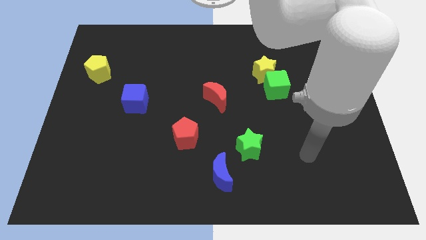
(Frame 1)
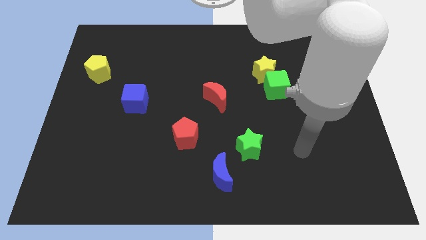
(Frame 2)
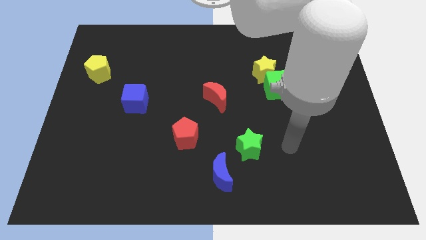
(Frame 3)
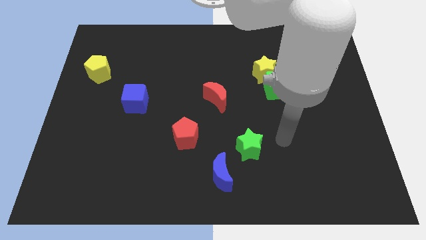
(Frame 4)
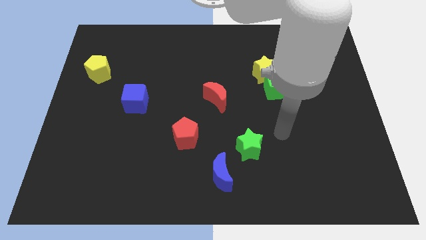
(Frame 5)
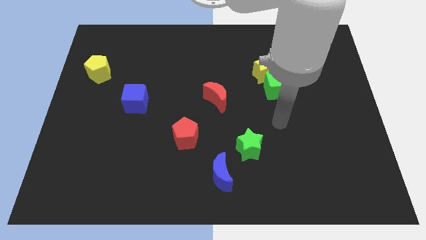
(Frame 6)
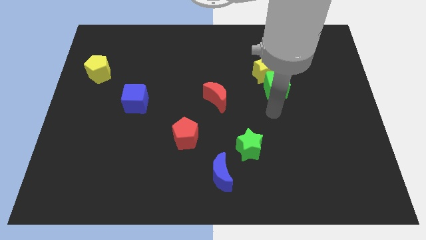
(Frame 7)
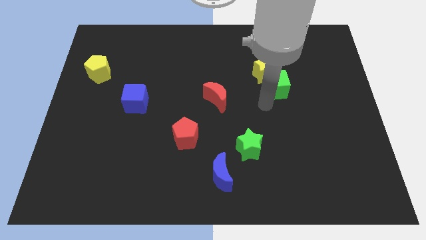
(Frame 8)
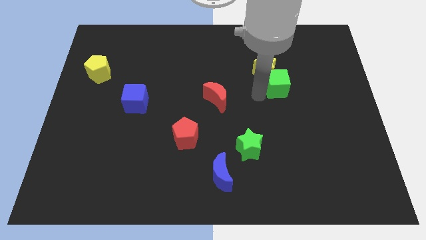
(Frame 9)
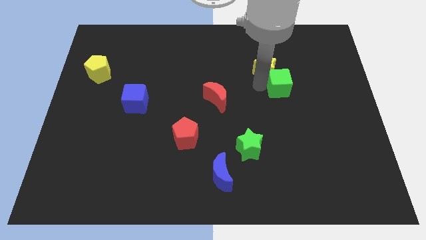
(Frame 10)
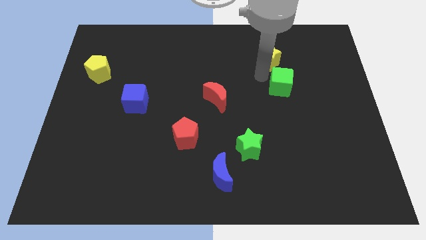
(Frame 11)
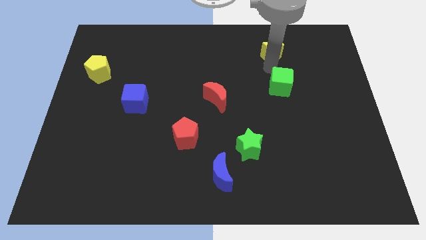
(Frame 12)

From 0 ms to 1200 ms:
separate the green cube from the yellow star

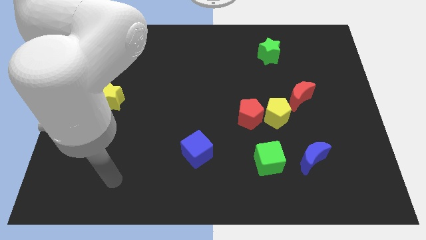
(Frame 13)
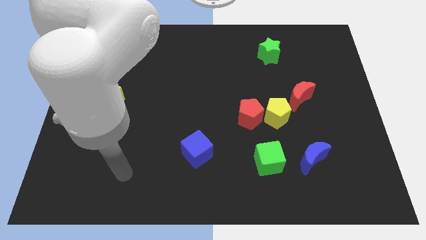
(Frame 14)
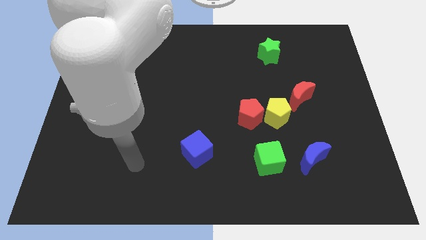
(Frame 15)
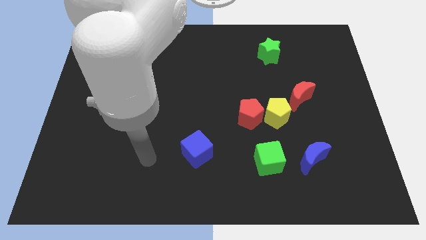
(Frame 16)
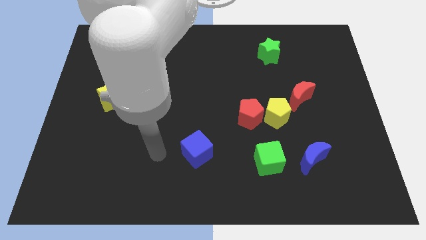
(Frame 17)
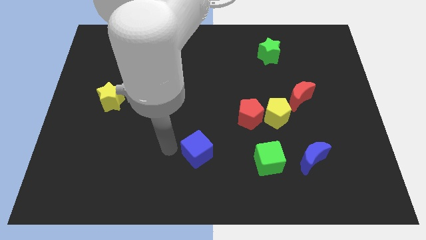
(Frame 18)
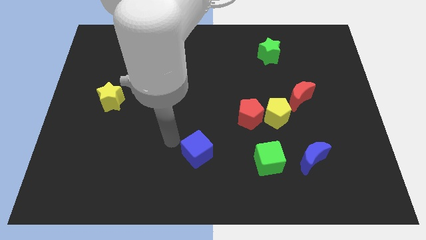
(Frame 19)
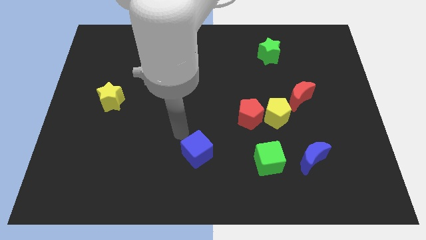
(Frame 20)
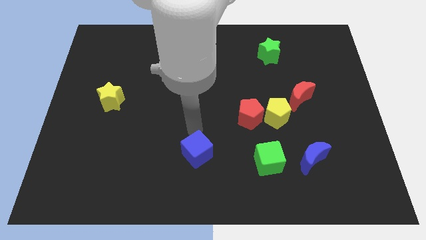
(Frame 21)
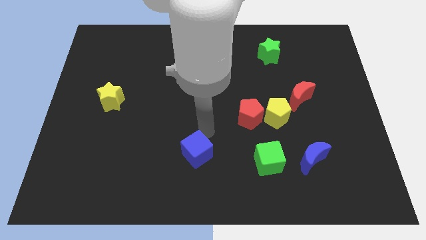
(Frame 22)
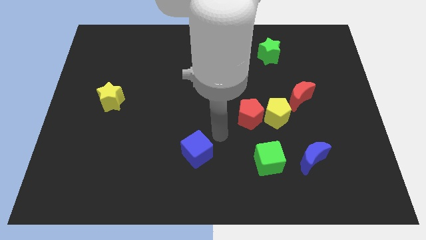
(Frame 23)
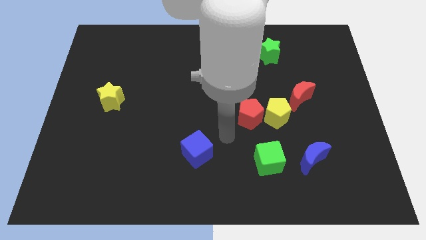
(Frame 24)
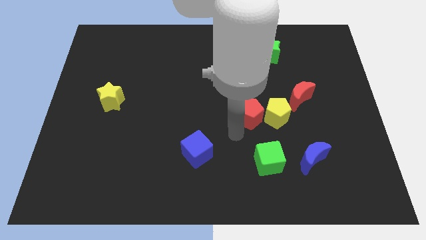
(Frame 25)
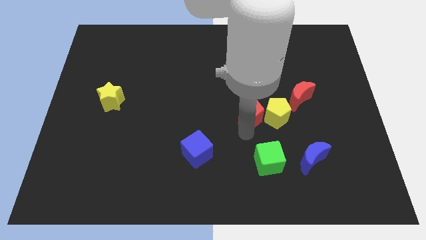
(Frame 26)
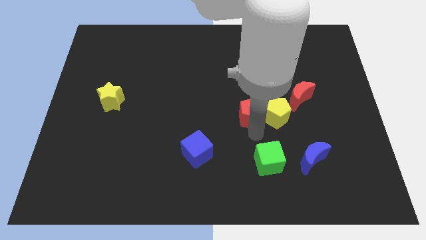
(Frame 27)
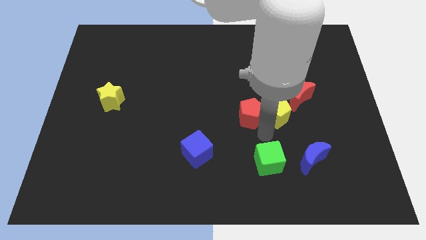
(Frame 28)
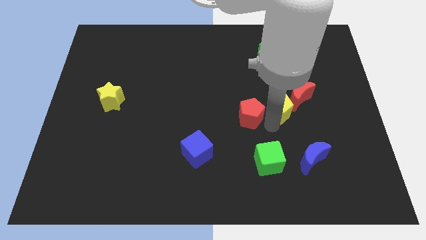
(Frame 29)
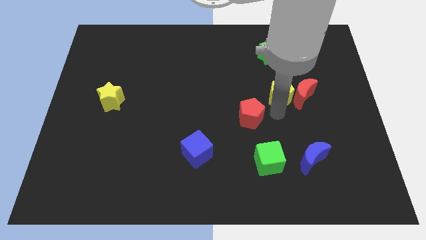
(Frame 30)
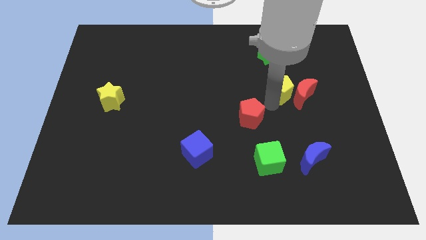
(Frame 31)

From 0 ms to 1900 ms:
pull the red pentagon apart from the yellow pentagon

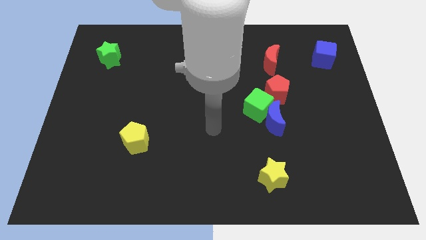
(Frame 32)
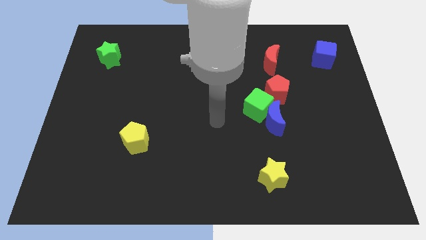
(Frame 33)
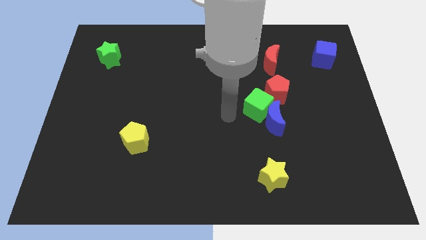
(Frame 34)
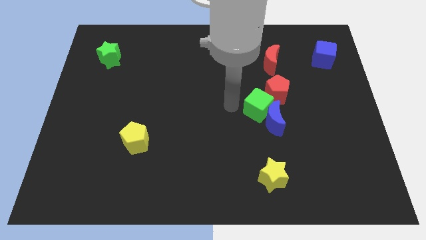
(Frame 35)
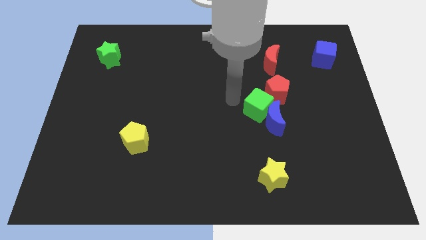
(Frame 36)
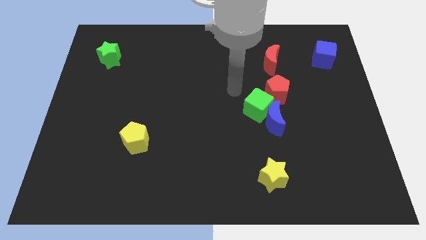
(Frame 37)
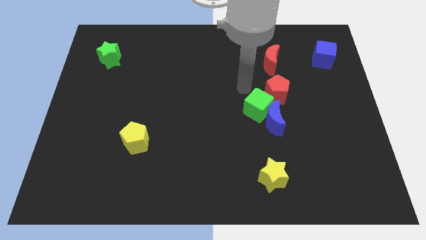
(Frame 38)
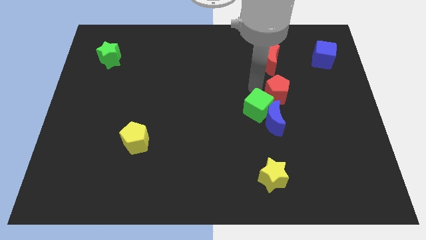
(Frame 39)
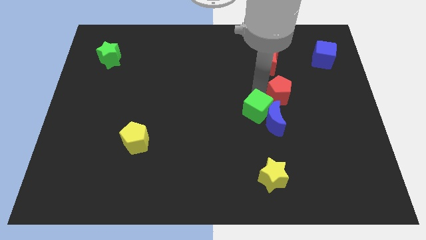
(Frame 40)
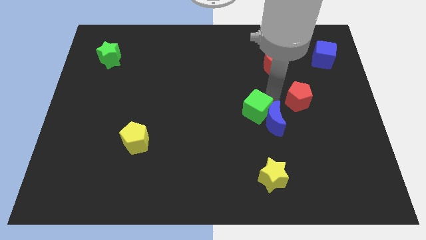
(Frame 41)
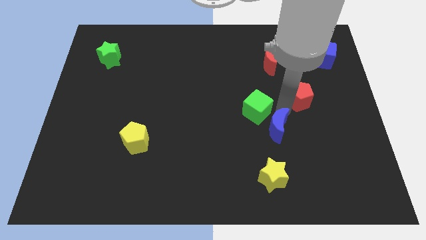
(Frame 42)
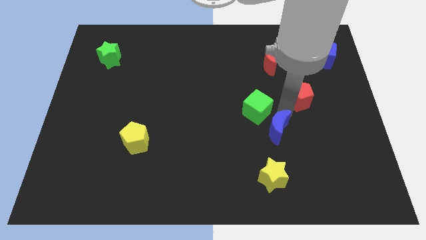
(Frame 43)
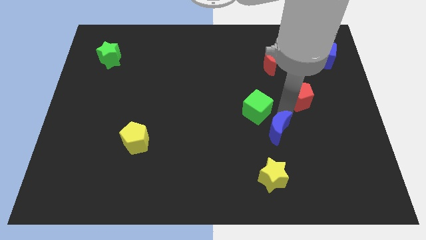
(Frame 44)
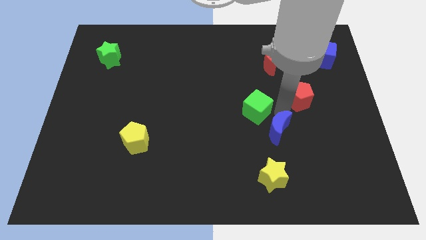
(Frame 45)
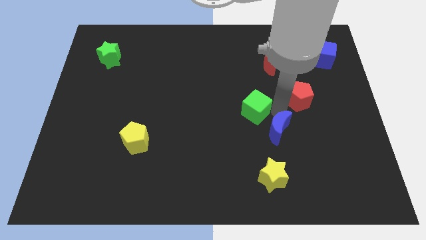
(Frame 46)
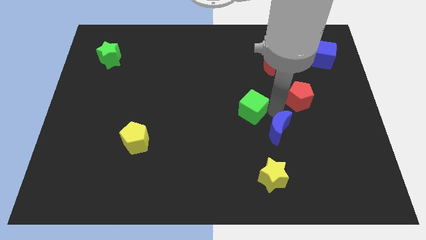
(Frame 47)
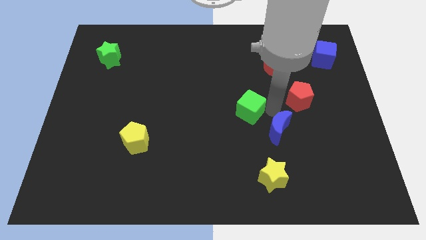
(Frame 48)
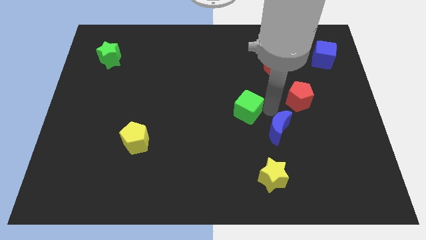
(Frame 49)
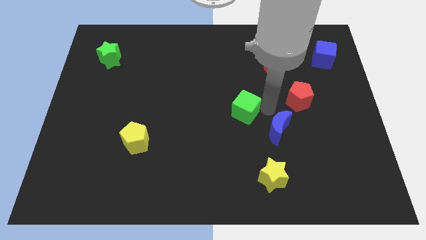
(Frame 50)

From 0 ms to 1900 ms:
move the green cube away from the blue moon and red pentagon

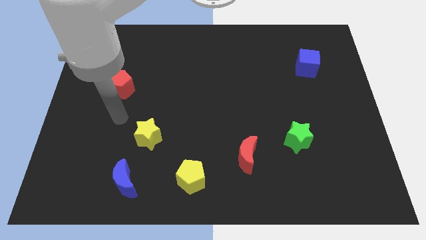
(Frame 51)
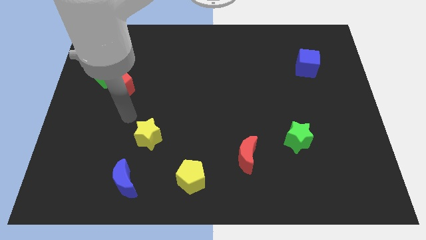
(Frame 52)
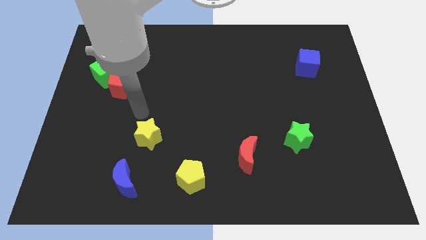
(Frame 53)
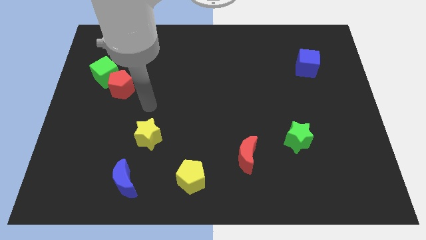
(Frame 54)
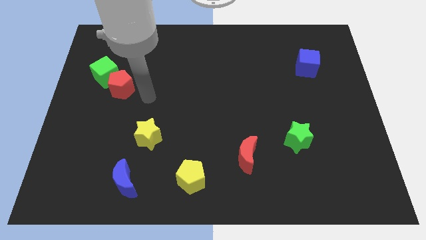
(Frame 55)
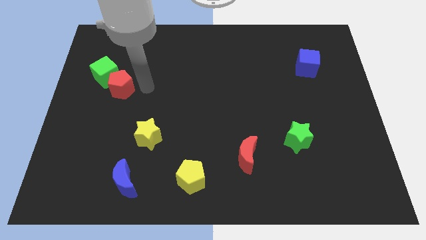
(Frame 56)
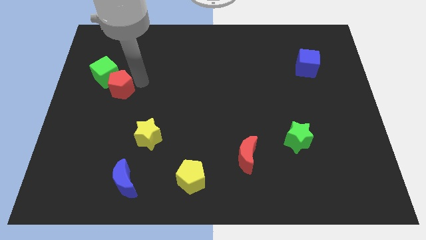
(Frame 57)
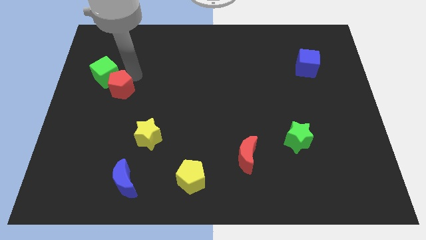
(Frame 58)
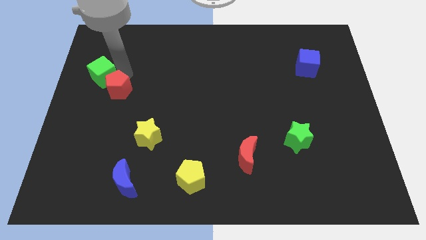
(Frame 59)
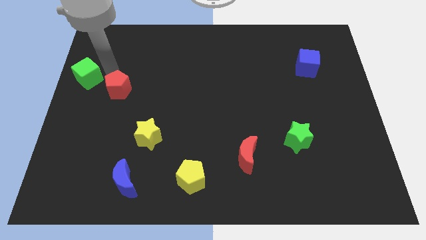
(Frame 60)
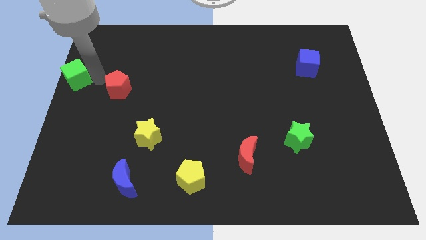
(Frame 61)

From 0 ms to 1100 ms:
pull the red pentagon apart from the green cube

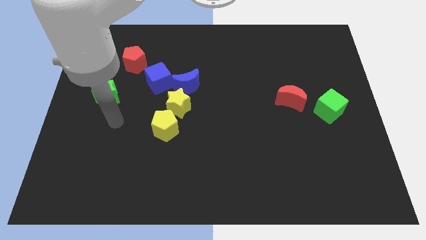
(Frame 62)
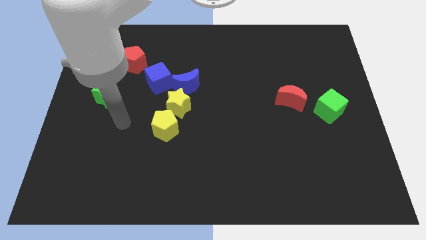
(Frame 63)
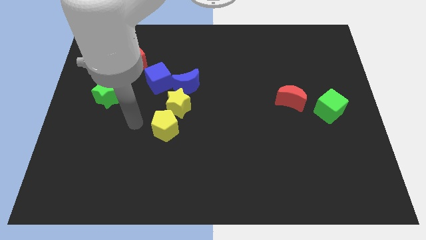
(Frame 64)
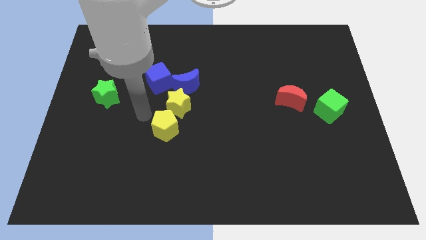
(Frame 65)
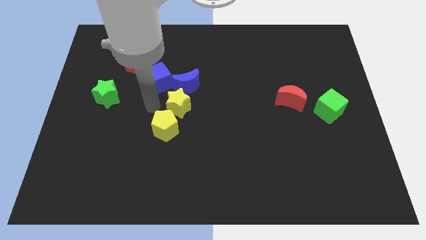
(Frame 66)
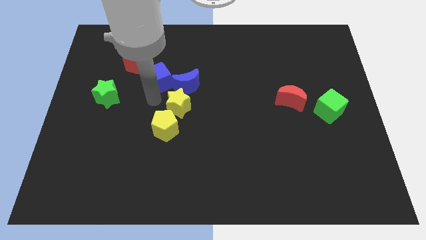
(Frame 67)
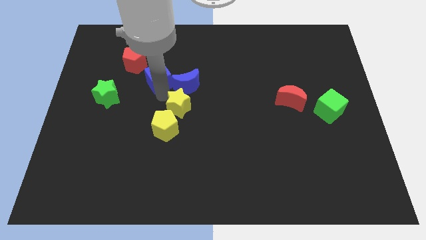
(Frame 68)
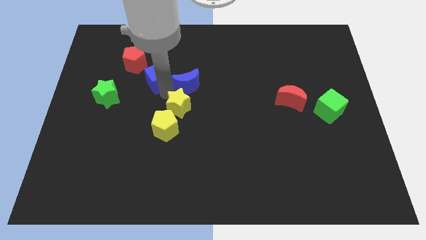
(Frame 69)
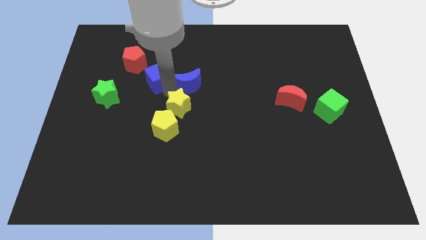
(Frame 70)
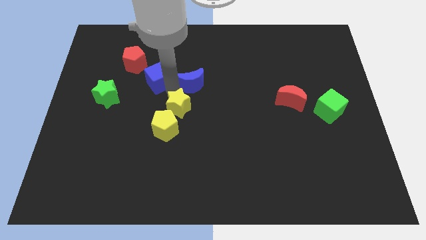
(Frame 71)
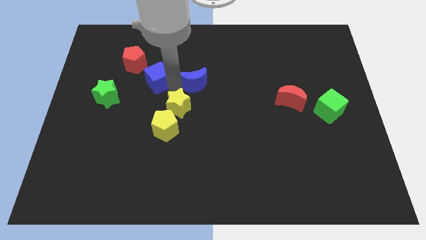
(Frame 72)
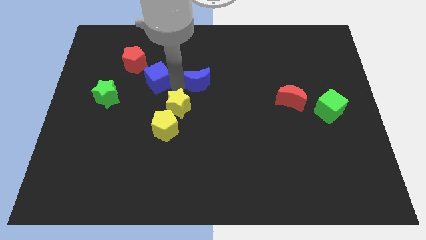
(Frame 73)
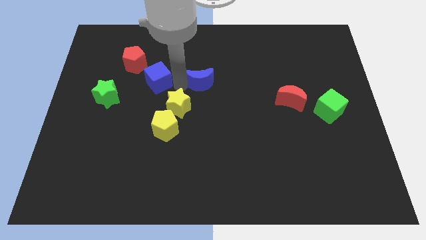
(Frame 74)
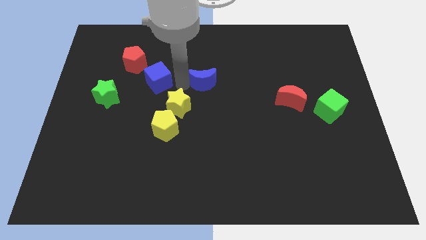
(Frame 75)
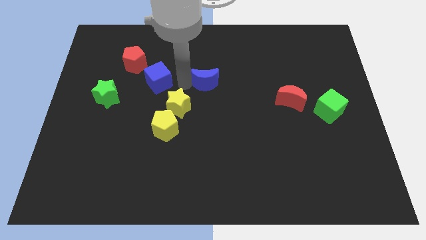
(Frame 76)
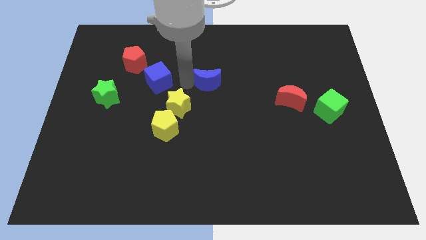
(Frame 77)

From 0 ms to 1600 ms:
move the blue moon away from the yellow star and blue cube

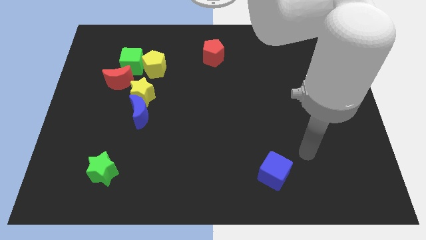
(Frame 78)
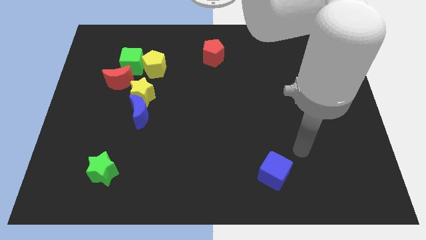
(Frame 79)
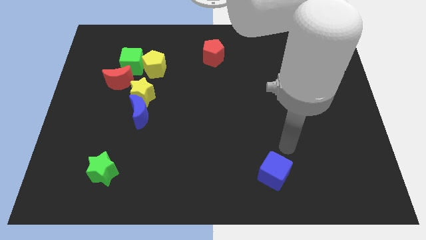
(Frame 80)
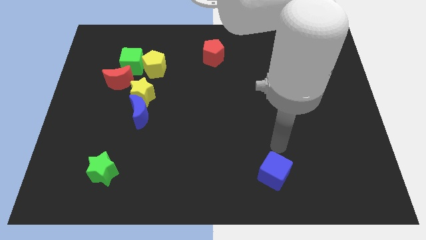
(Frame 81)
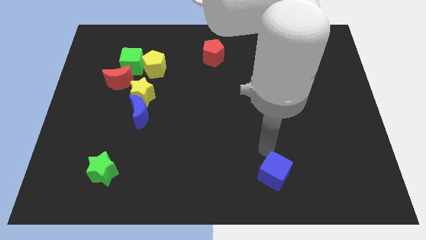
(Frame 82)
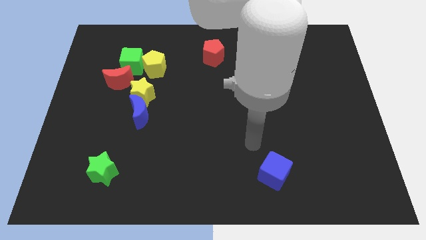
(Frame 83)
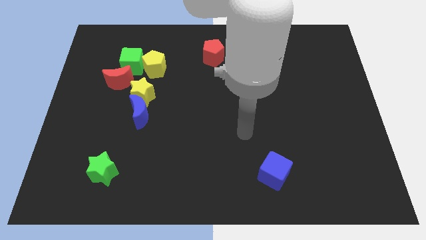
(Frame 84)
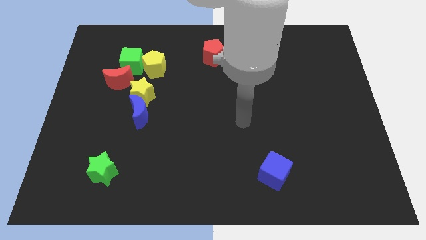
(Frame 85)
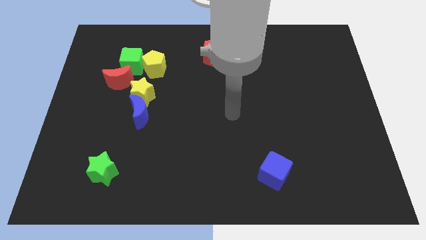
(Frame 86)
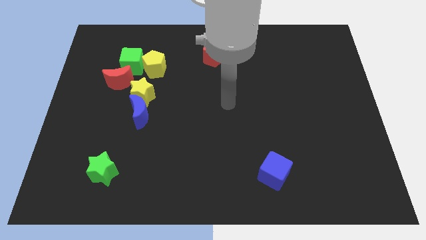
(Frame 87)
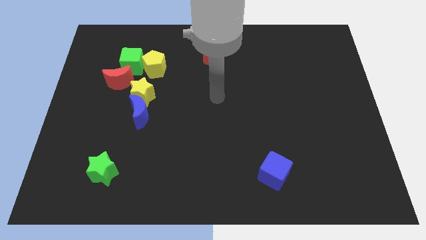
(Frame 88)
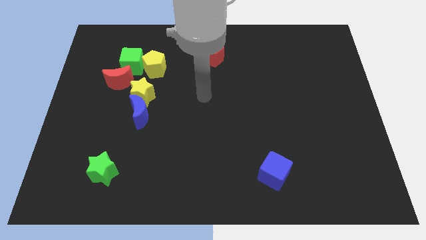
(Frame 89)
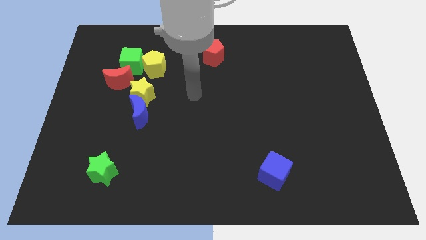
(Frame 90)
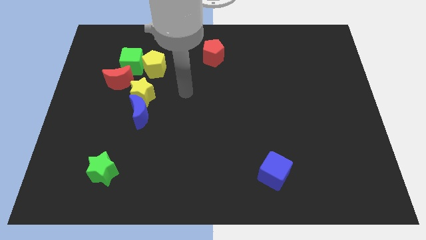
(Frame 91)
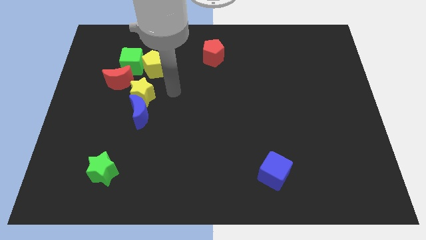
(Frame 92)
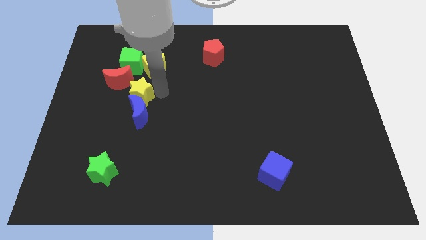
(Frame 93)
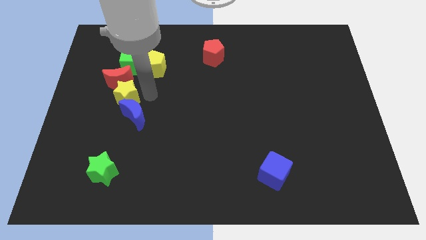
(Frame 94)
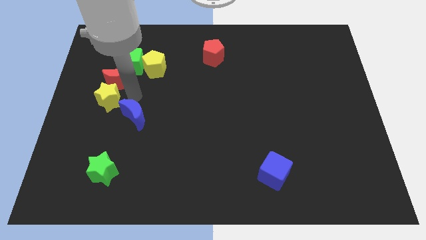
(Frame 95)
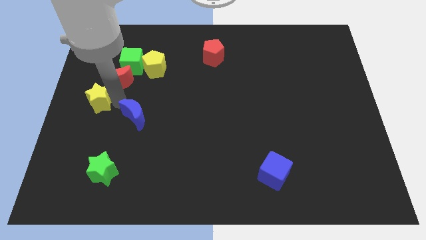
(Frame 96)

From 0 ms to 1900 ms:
separate the blue moon from the yellow star
